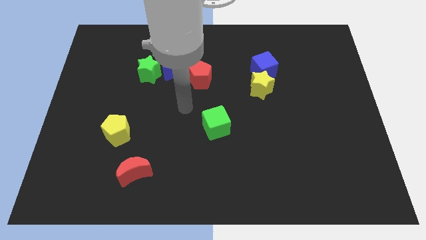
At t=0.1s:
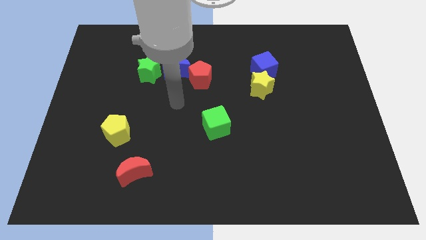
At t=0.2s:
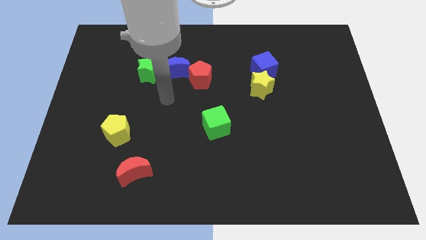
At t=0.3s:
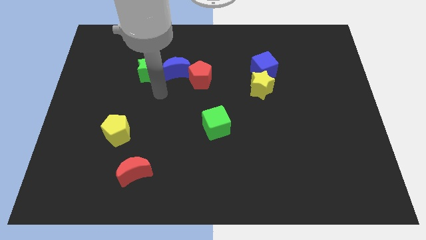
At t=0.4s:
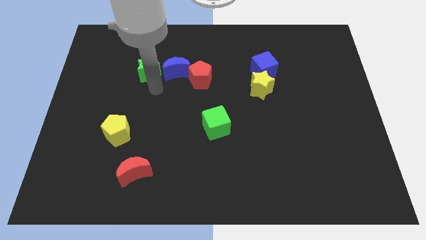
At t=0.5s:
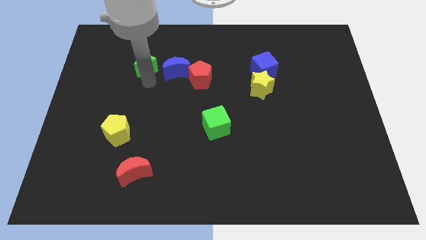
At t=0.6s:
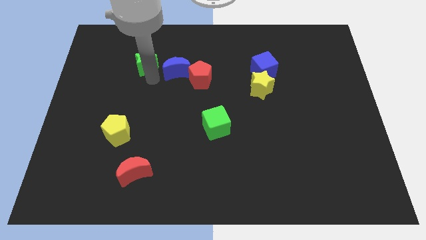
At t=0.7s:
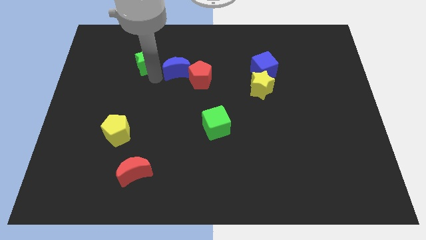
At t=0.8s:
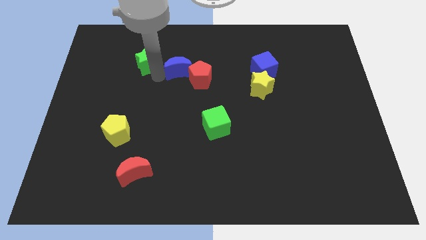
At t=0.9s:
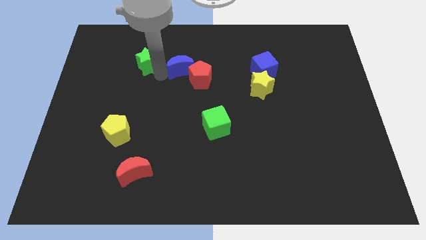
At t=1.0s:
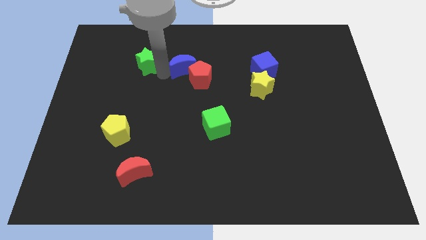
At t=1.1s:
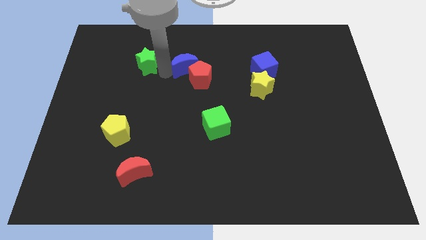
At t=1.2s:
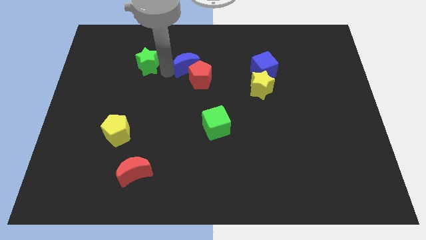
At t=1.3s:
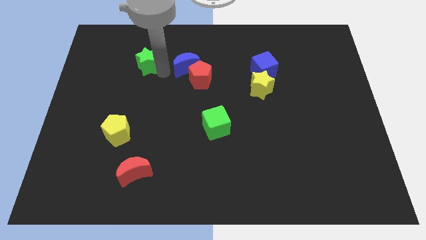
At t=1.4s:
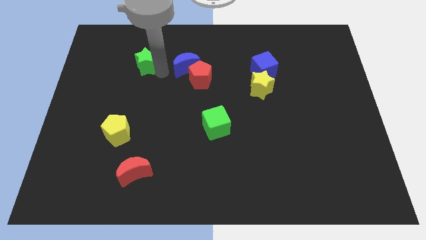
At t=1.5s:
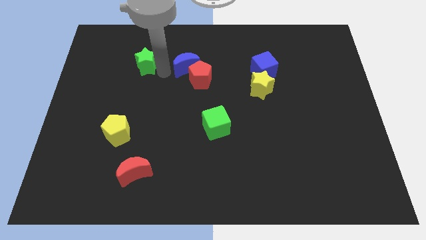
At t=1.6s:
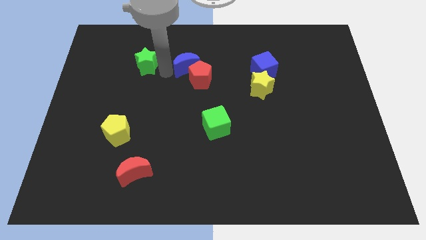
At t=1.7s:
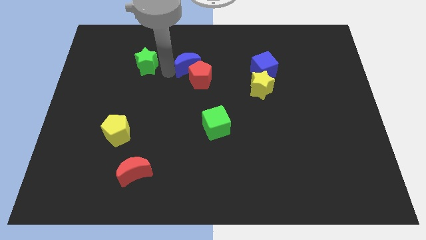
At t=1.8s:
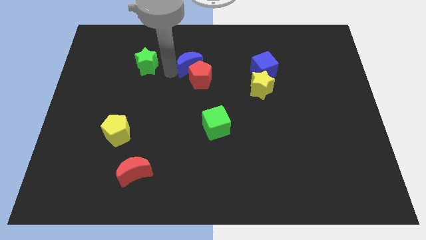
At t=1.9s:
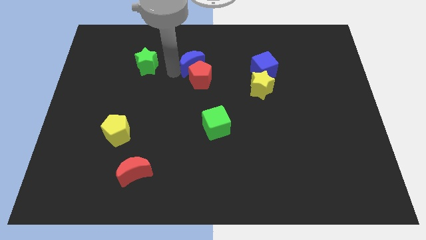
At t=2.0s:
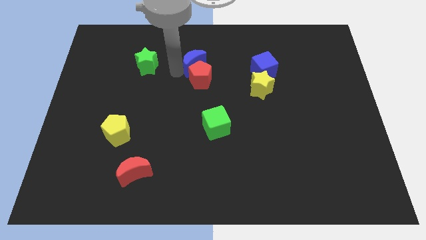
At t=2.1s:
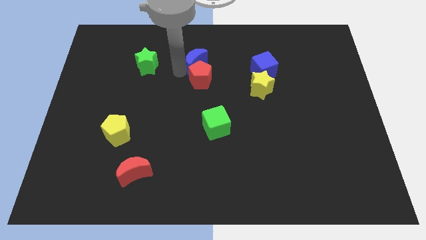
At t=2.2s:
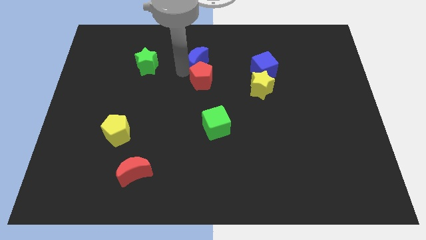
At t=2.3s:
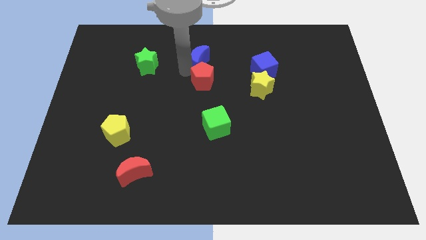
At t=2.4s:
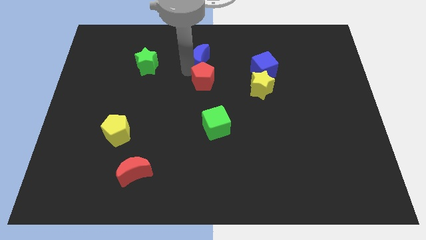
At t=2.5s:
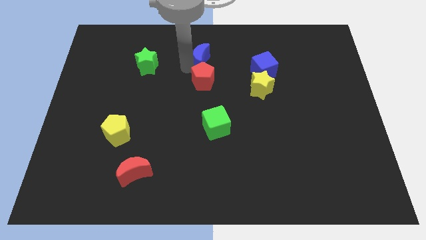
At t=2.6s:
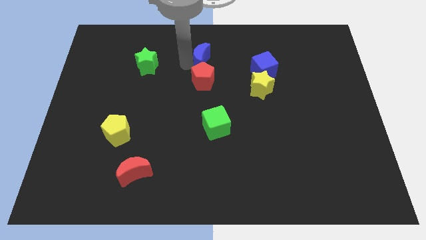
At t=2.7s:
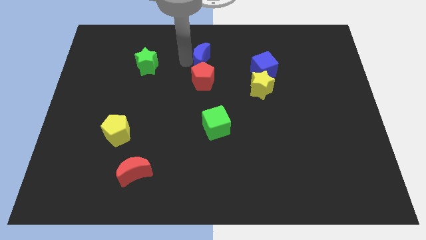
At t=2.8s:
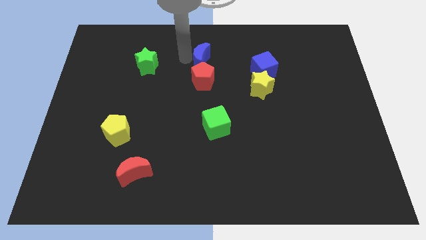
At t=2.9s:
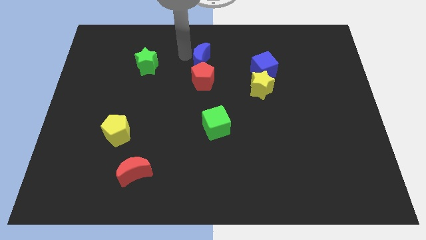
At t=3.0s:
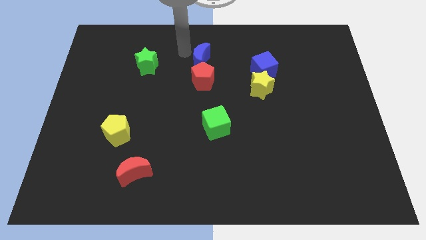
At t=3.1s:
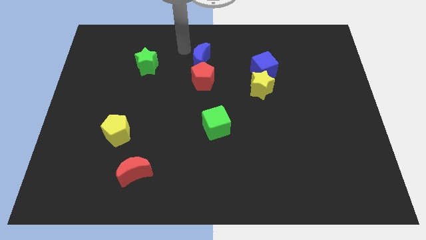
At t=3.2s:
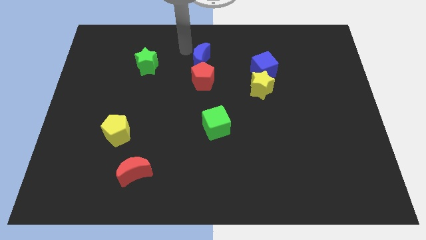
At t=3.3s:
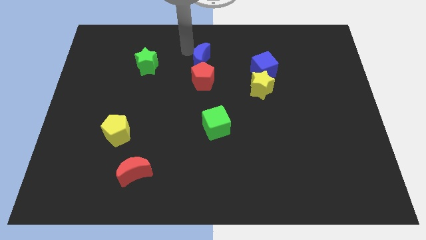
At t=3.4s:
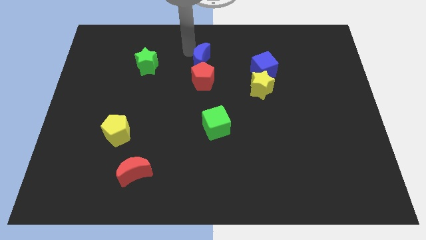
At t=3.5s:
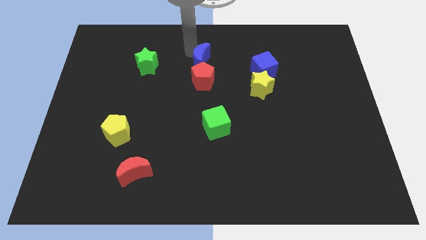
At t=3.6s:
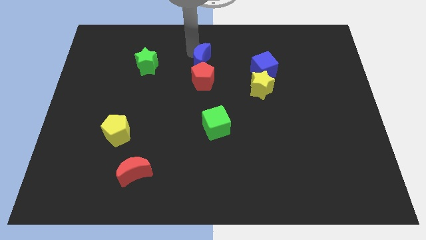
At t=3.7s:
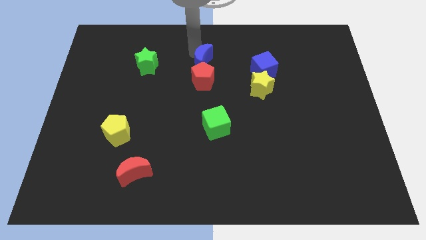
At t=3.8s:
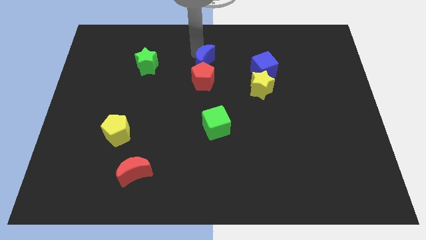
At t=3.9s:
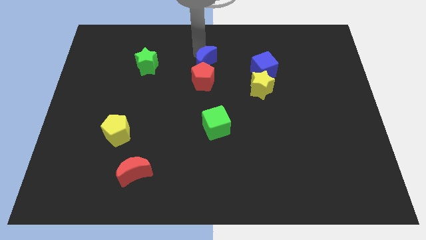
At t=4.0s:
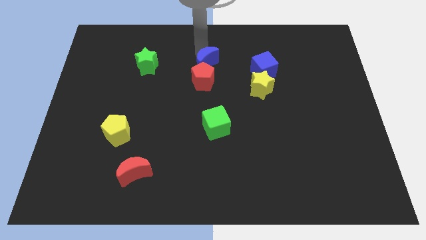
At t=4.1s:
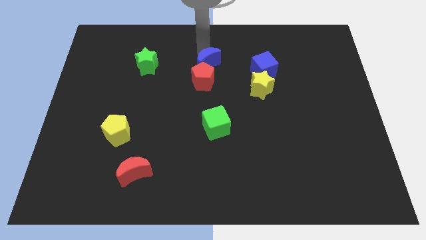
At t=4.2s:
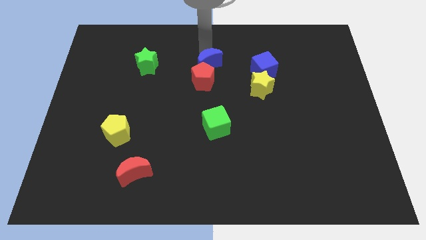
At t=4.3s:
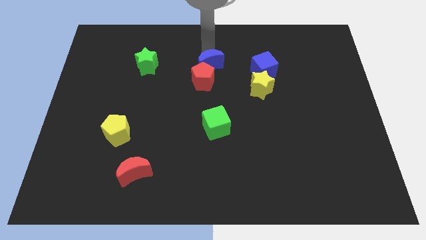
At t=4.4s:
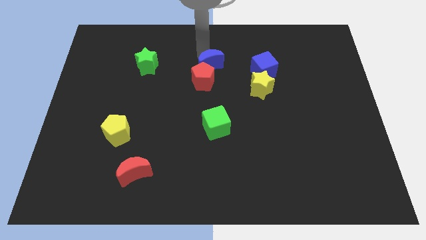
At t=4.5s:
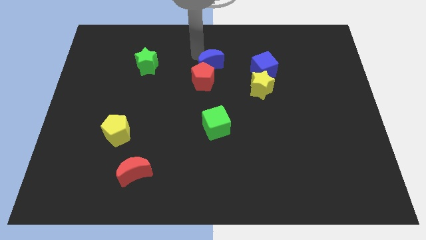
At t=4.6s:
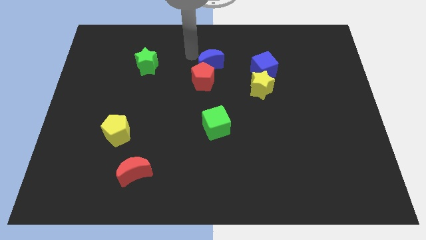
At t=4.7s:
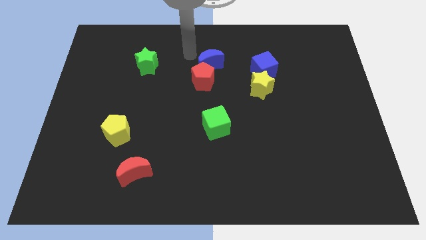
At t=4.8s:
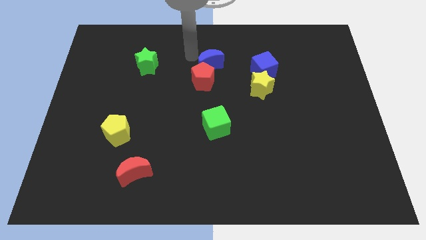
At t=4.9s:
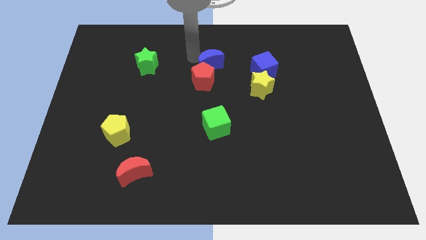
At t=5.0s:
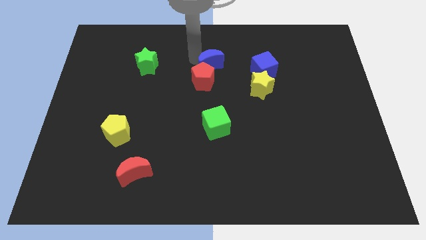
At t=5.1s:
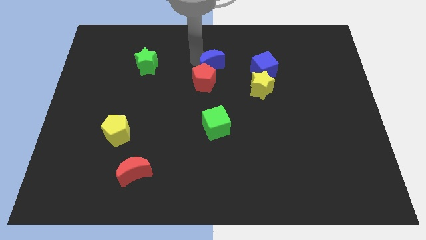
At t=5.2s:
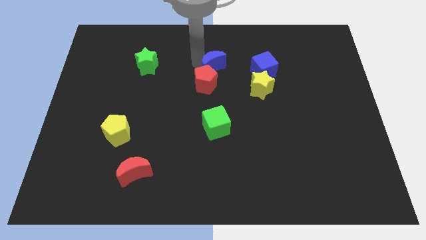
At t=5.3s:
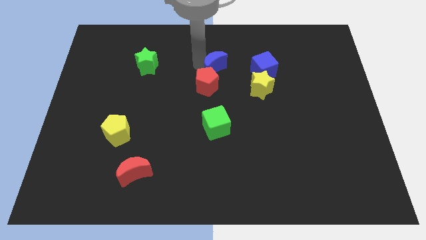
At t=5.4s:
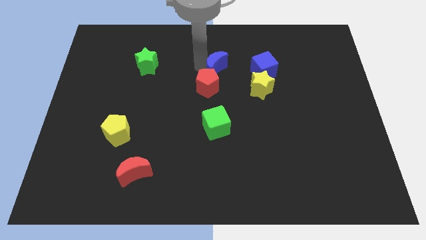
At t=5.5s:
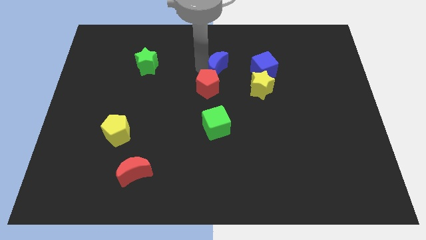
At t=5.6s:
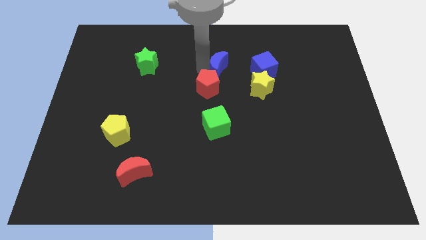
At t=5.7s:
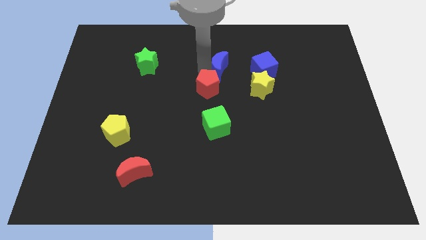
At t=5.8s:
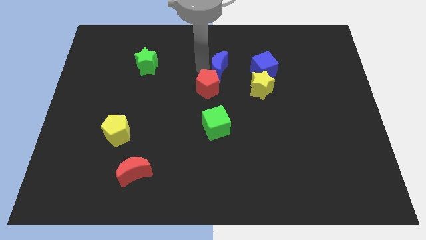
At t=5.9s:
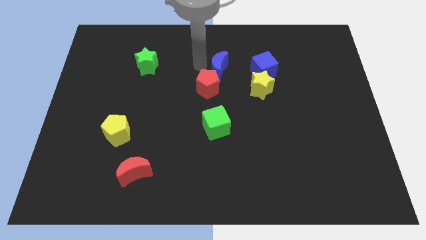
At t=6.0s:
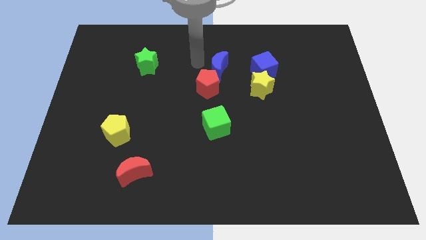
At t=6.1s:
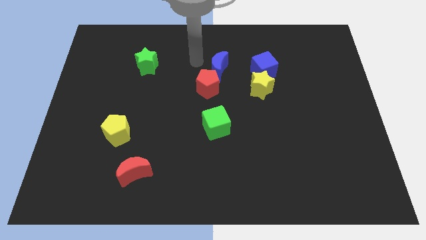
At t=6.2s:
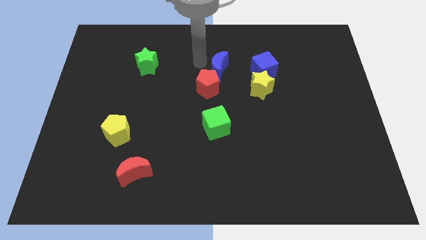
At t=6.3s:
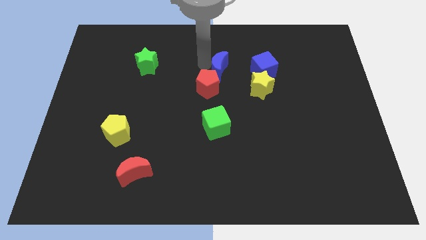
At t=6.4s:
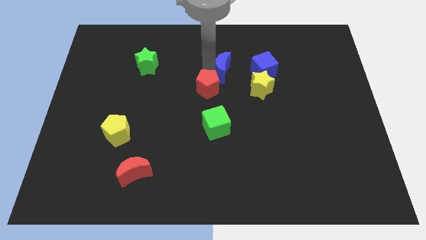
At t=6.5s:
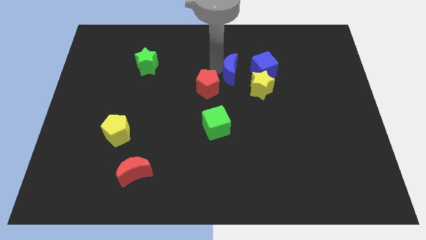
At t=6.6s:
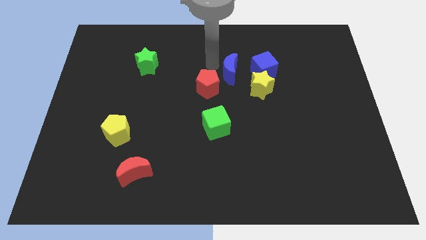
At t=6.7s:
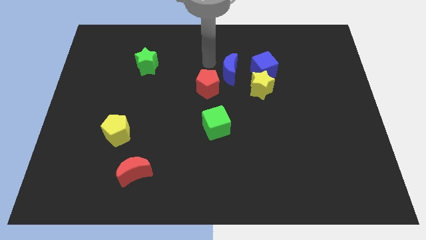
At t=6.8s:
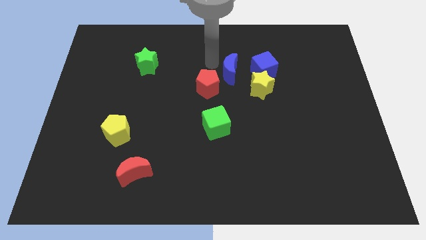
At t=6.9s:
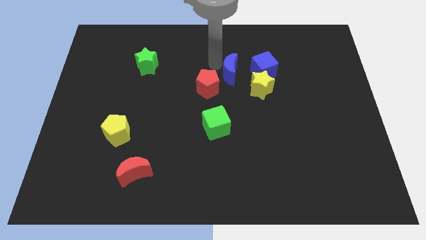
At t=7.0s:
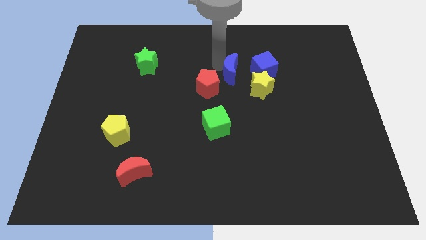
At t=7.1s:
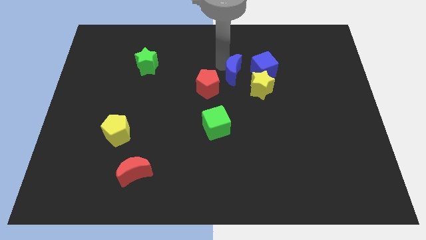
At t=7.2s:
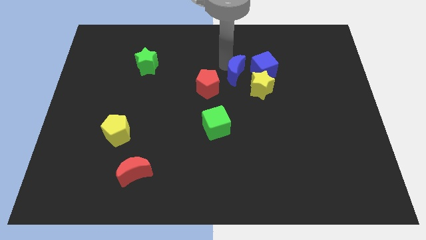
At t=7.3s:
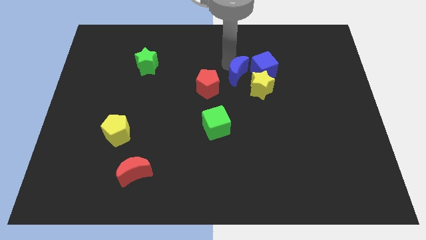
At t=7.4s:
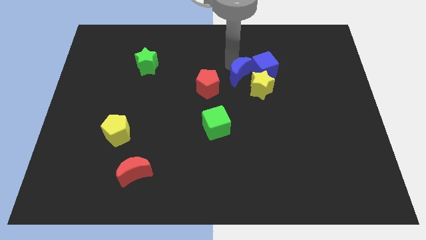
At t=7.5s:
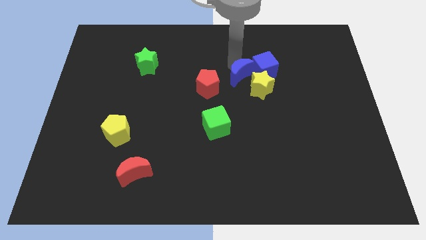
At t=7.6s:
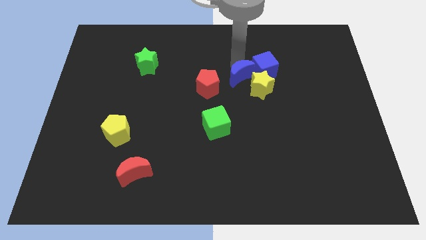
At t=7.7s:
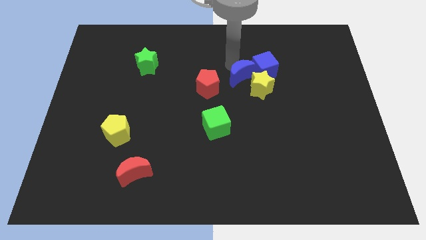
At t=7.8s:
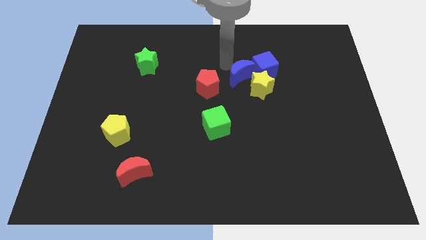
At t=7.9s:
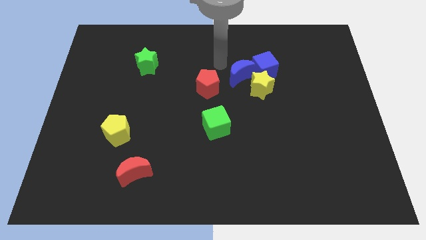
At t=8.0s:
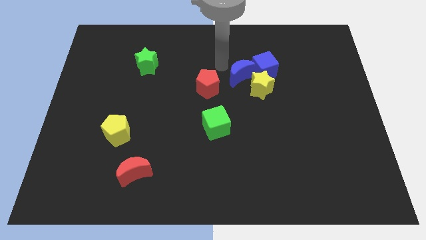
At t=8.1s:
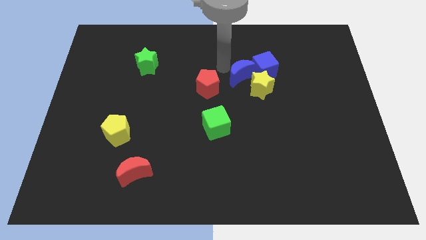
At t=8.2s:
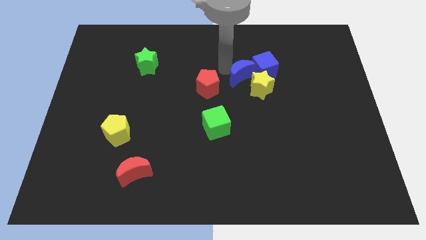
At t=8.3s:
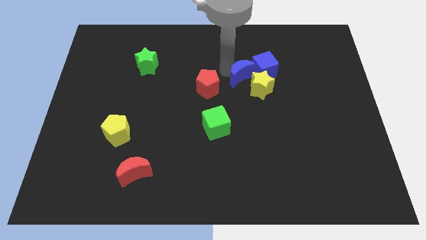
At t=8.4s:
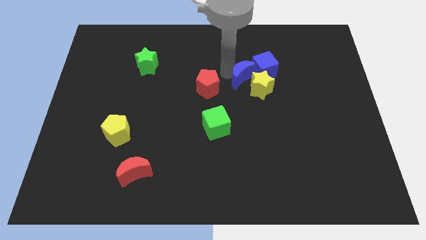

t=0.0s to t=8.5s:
slide the blue moon next to the yellow star
